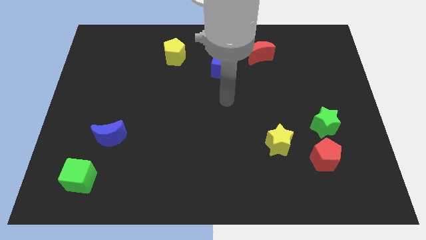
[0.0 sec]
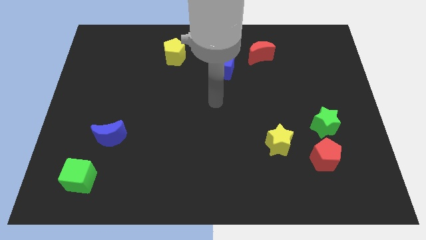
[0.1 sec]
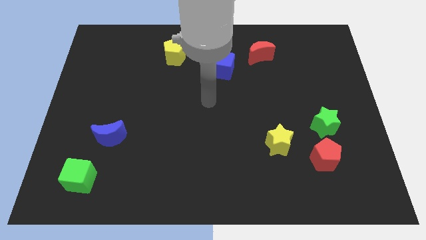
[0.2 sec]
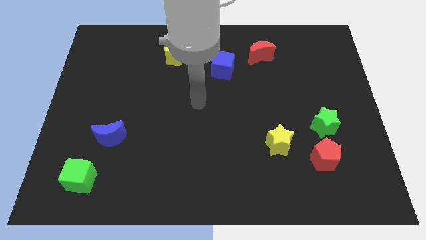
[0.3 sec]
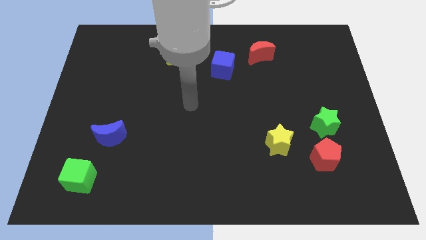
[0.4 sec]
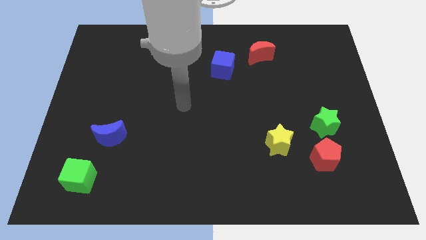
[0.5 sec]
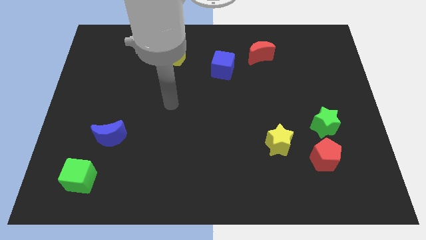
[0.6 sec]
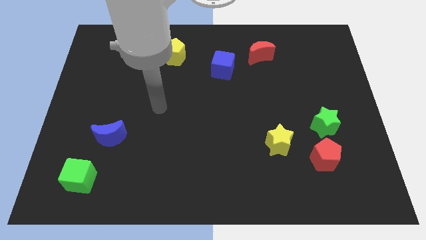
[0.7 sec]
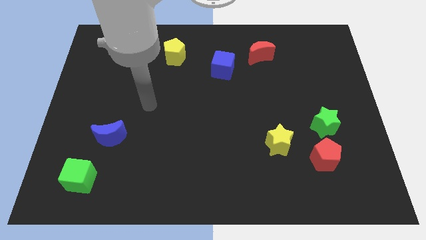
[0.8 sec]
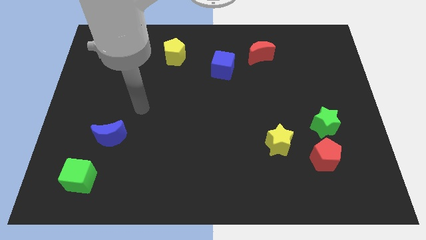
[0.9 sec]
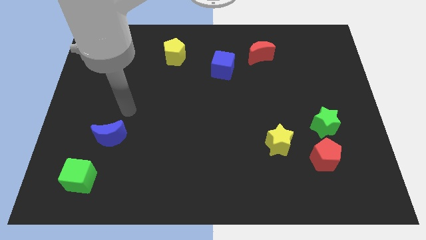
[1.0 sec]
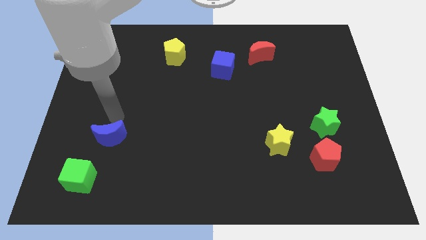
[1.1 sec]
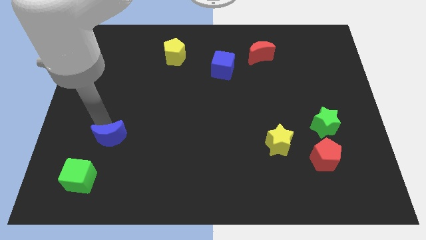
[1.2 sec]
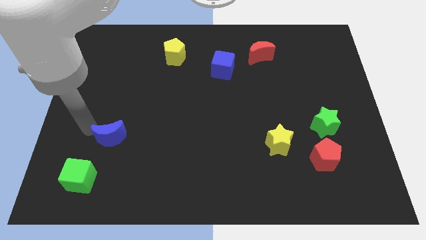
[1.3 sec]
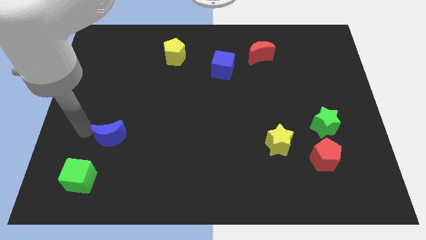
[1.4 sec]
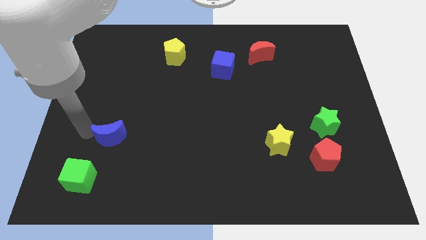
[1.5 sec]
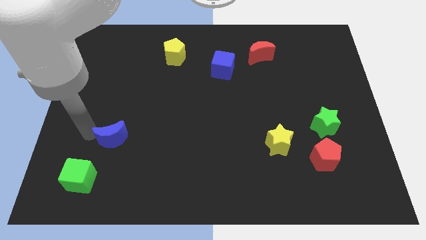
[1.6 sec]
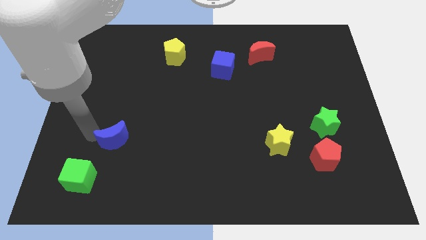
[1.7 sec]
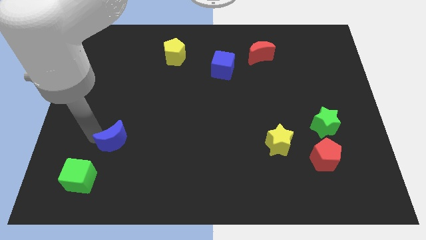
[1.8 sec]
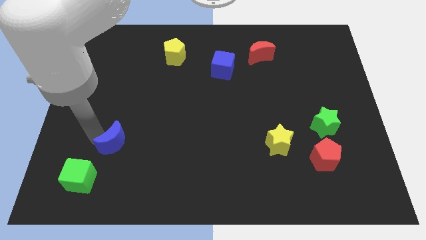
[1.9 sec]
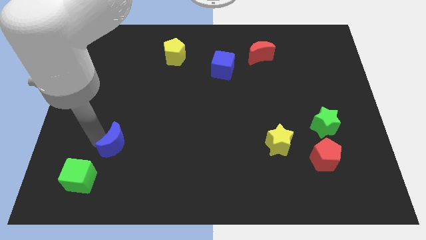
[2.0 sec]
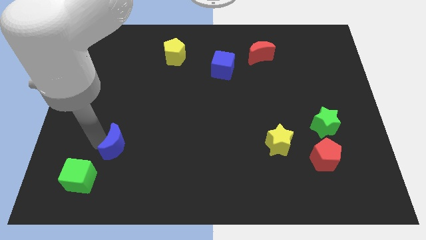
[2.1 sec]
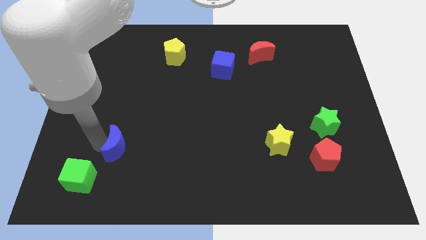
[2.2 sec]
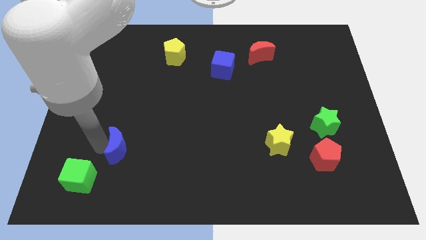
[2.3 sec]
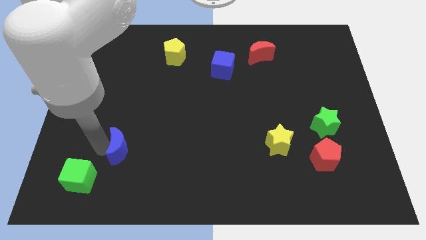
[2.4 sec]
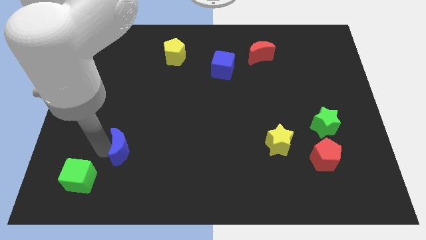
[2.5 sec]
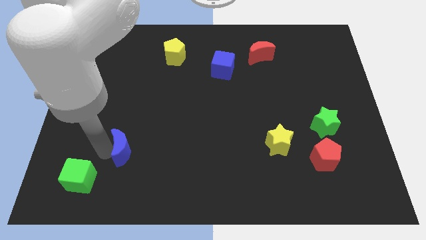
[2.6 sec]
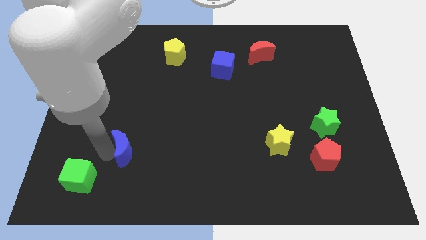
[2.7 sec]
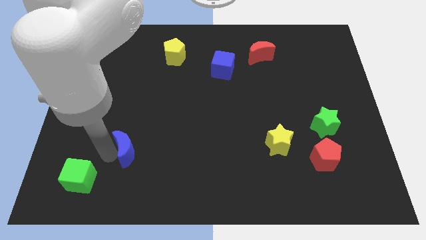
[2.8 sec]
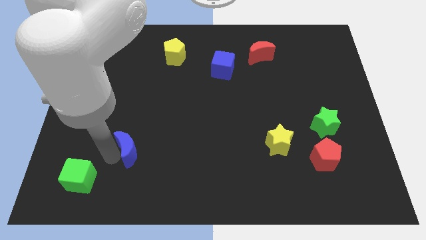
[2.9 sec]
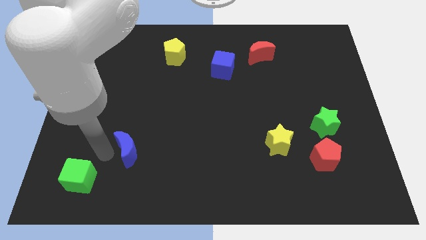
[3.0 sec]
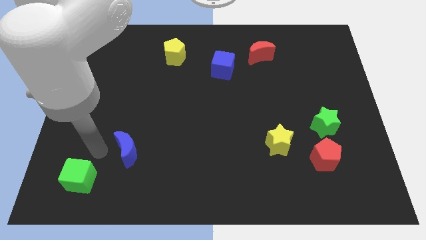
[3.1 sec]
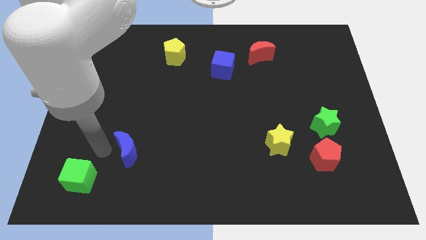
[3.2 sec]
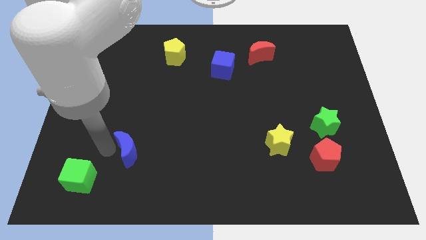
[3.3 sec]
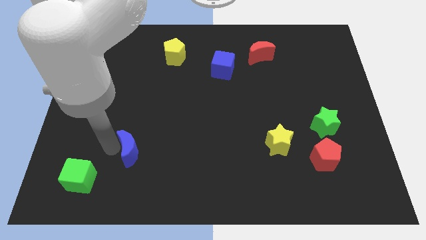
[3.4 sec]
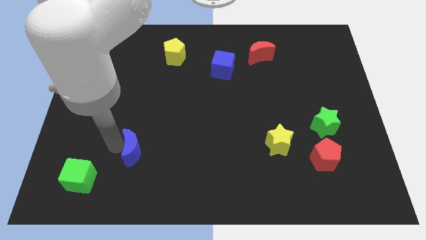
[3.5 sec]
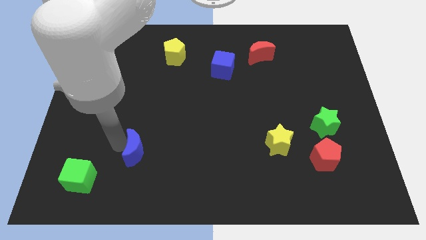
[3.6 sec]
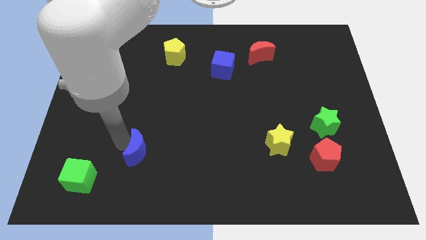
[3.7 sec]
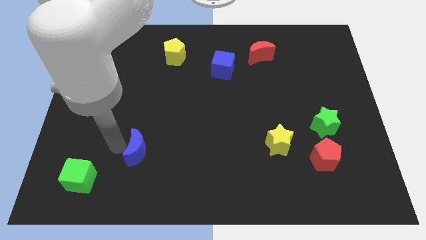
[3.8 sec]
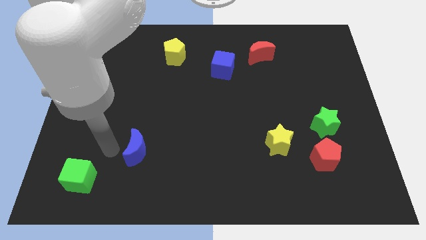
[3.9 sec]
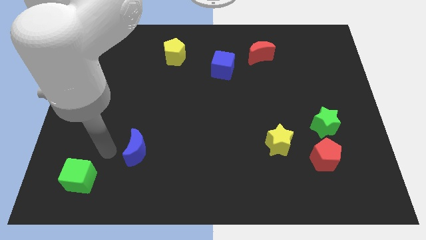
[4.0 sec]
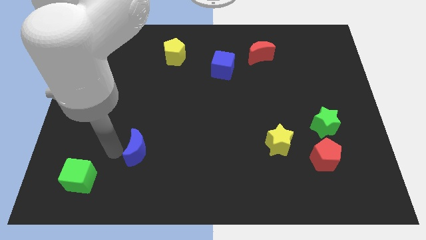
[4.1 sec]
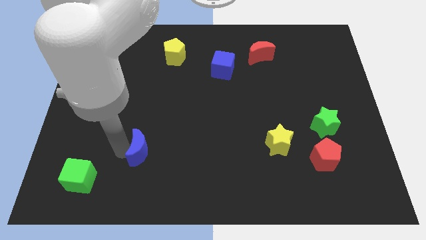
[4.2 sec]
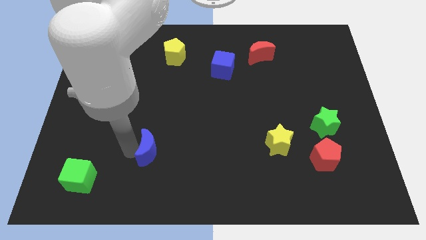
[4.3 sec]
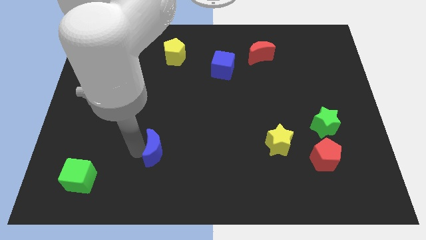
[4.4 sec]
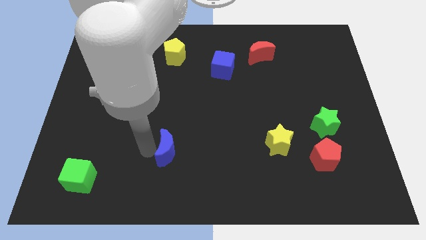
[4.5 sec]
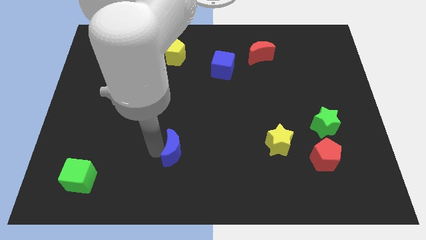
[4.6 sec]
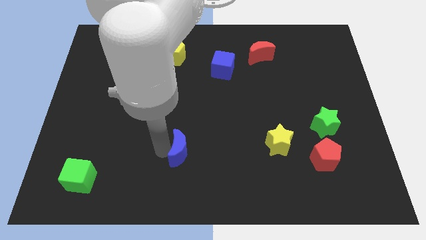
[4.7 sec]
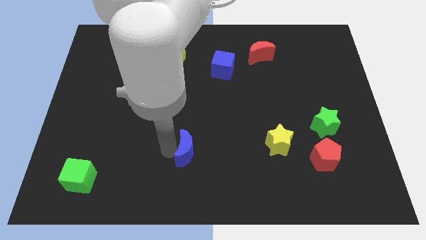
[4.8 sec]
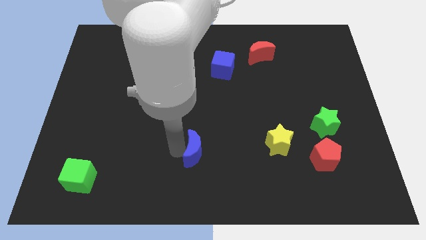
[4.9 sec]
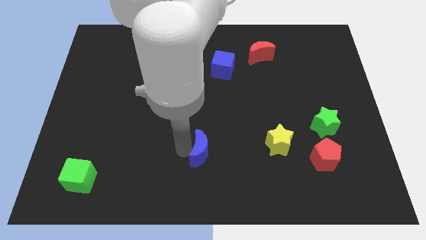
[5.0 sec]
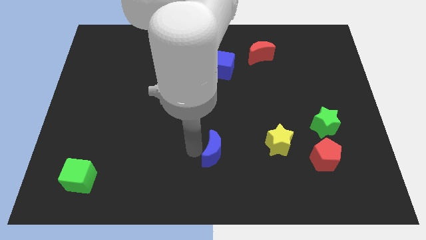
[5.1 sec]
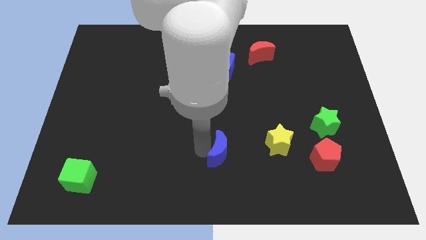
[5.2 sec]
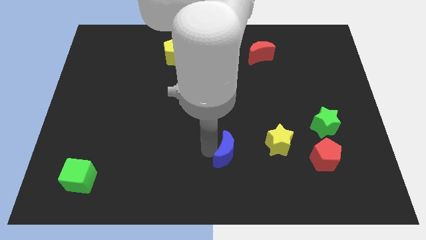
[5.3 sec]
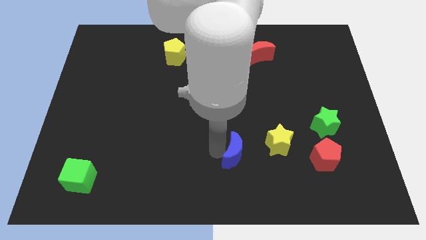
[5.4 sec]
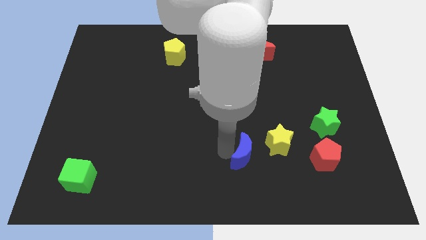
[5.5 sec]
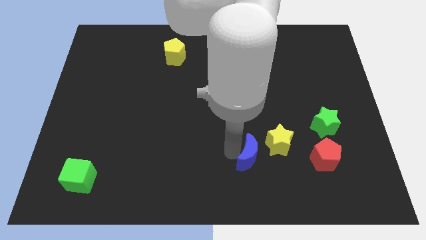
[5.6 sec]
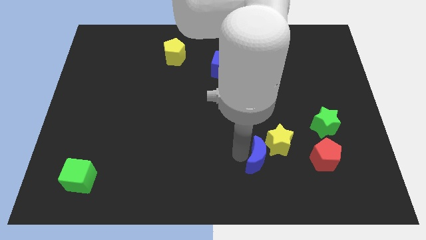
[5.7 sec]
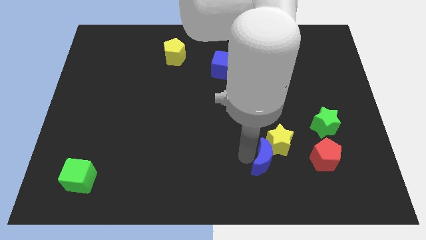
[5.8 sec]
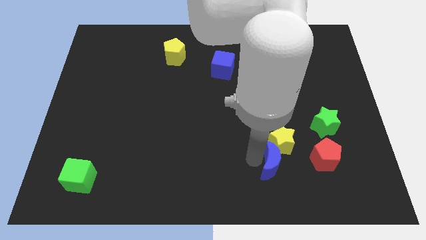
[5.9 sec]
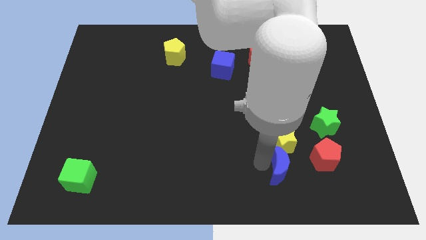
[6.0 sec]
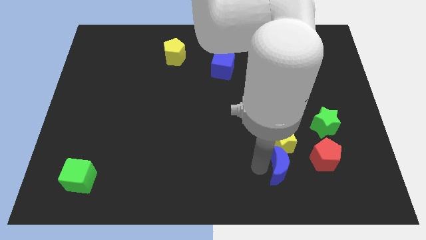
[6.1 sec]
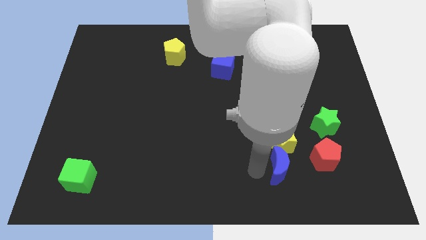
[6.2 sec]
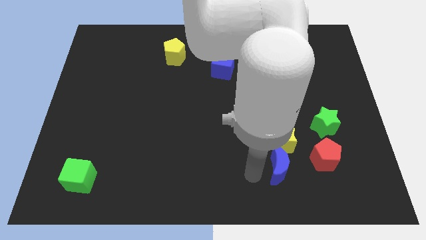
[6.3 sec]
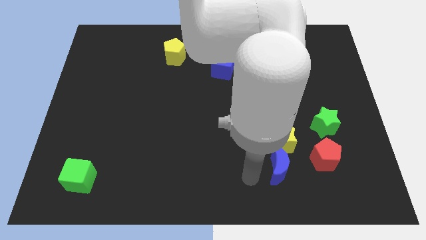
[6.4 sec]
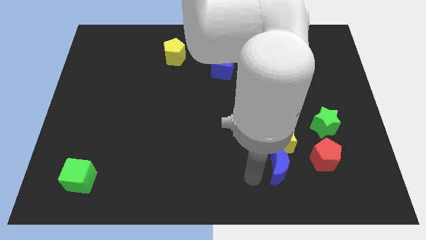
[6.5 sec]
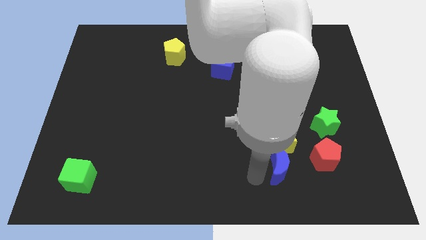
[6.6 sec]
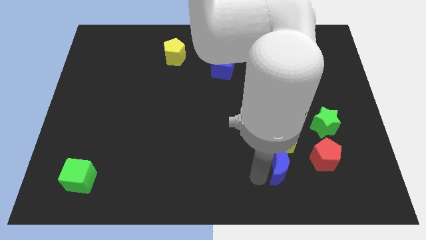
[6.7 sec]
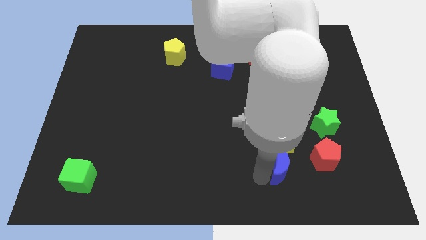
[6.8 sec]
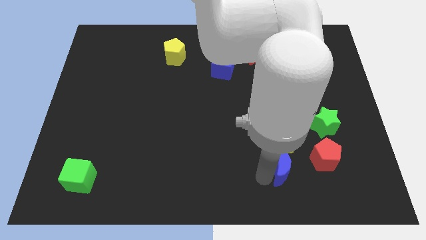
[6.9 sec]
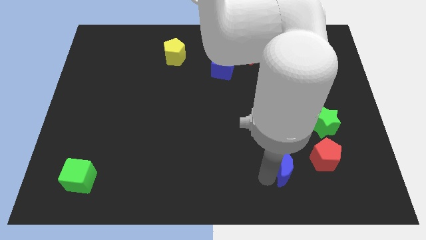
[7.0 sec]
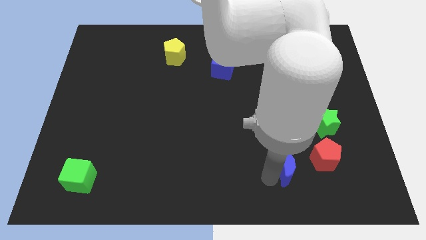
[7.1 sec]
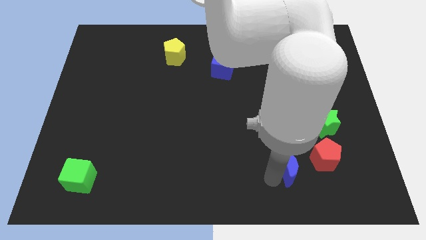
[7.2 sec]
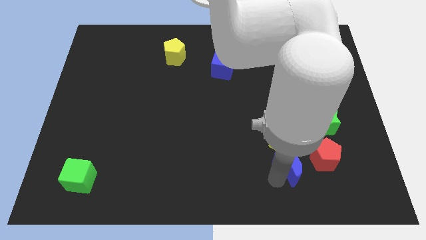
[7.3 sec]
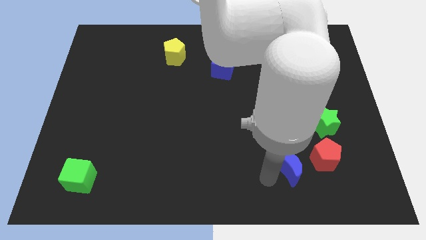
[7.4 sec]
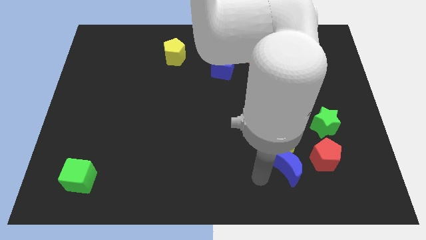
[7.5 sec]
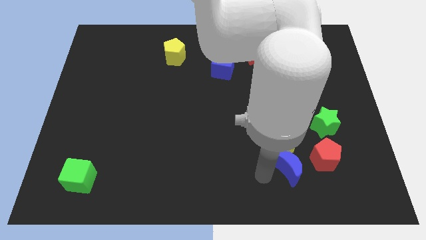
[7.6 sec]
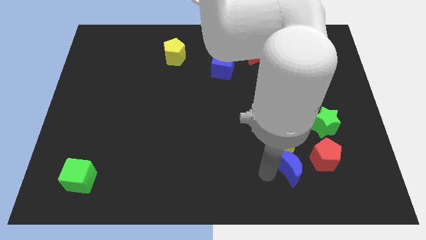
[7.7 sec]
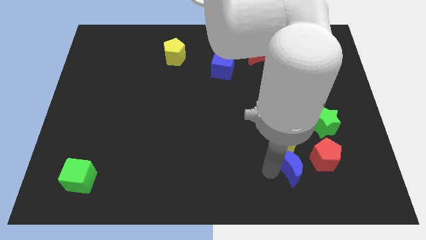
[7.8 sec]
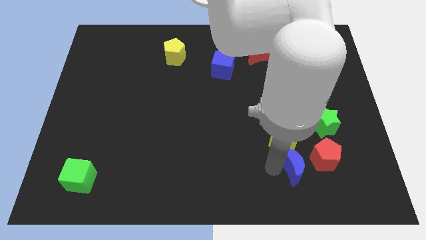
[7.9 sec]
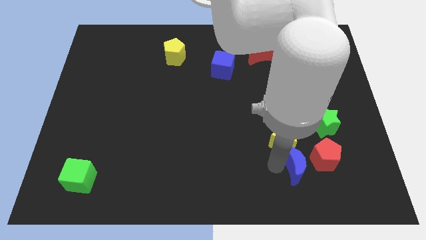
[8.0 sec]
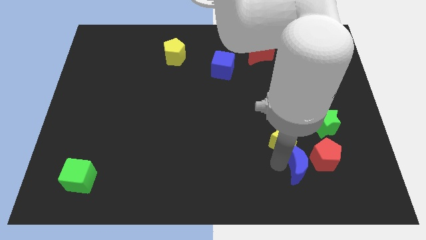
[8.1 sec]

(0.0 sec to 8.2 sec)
slide the blue moon to the red pentagon
